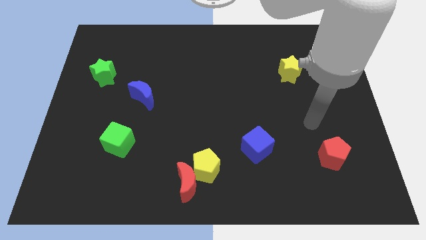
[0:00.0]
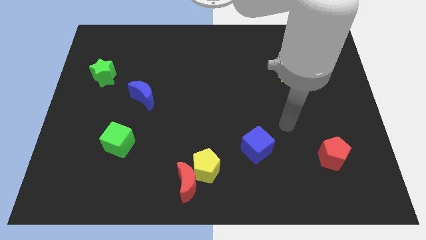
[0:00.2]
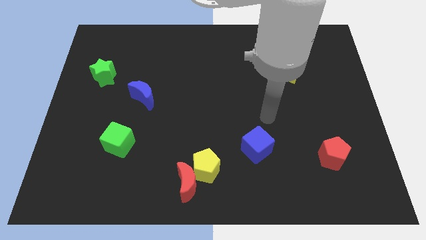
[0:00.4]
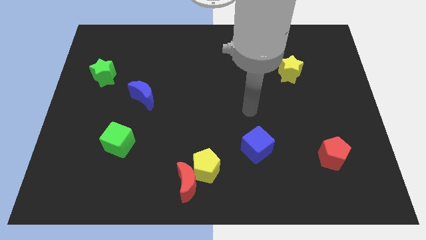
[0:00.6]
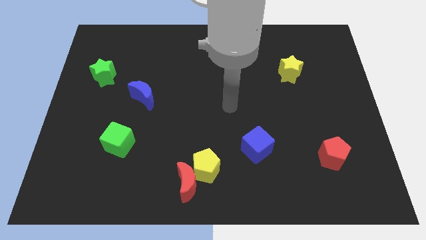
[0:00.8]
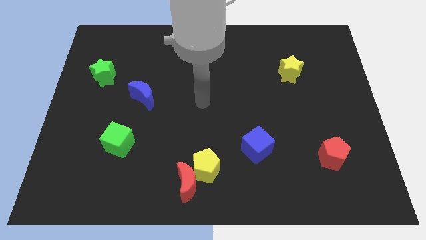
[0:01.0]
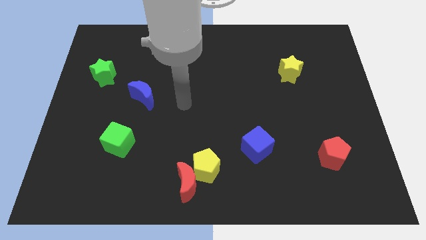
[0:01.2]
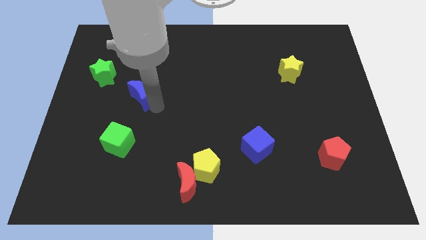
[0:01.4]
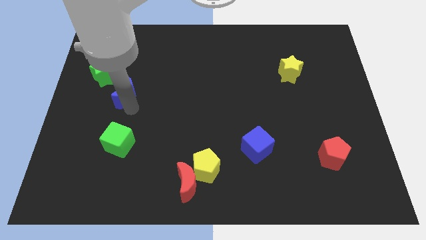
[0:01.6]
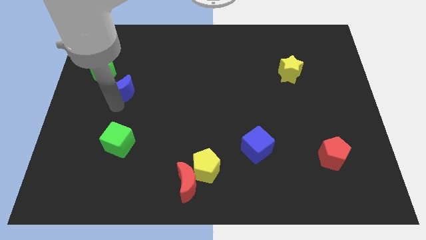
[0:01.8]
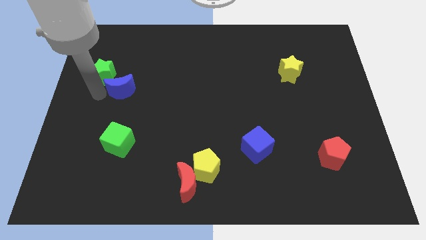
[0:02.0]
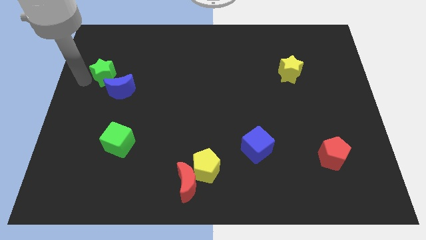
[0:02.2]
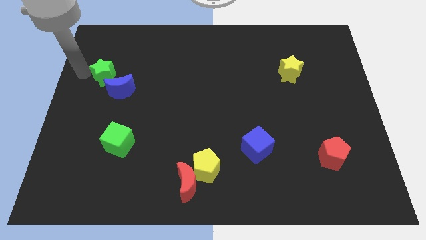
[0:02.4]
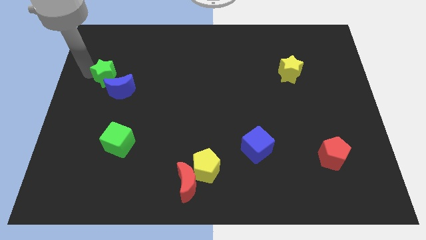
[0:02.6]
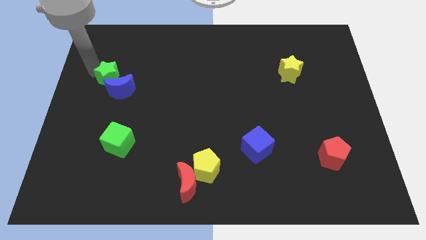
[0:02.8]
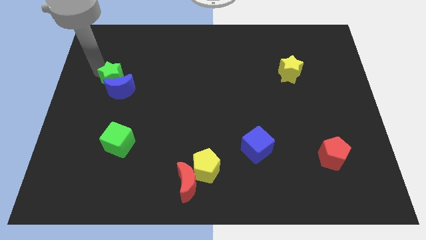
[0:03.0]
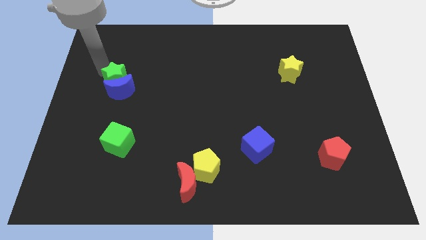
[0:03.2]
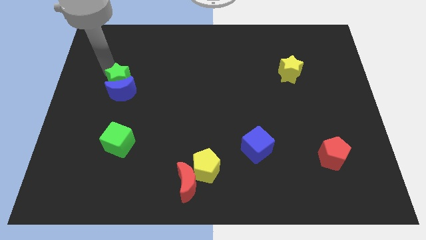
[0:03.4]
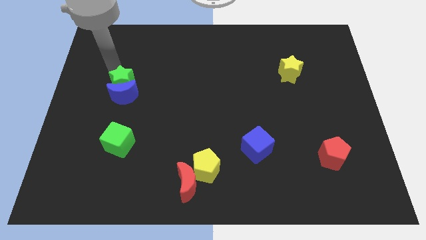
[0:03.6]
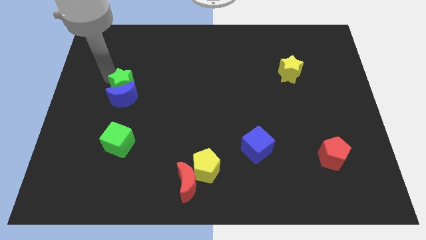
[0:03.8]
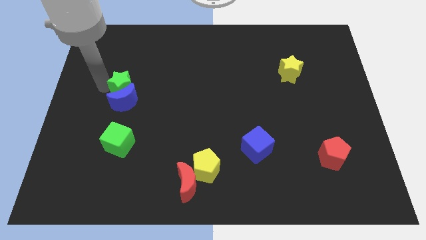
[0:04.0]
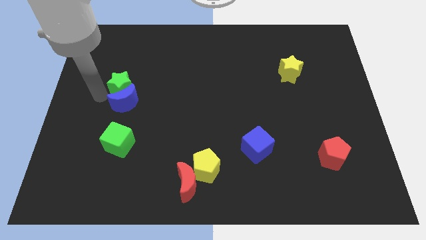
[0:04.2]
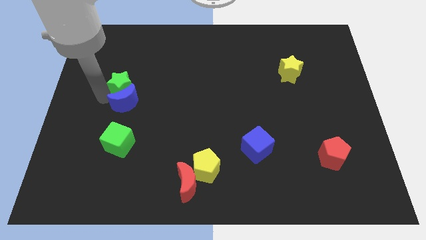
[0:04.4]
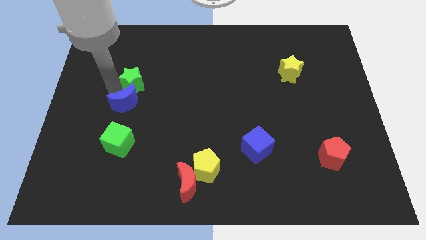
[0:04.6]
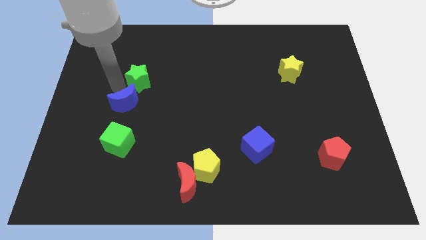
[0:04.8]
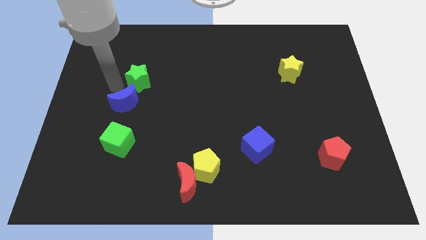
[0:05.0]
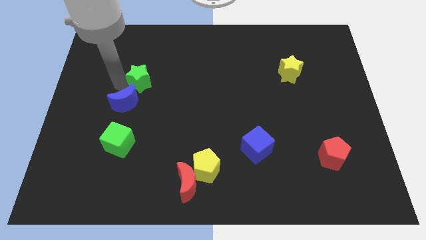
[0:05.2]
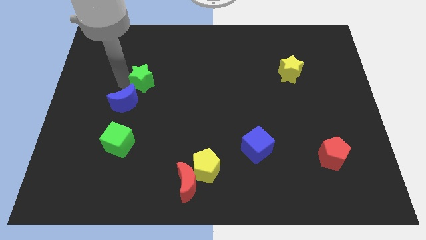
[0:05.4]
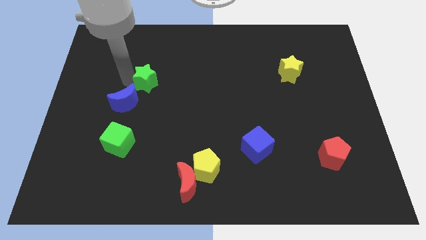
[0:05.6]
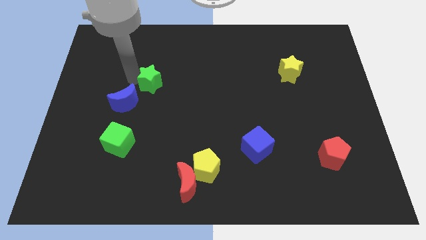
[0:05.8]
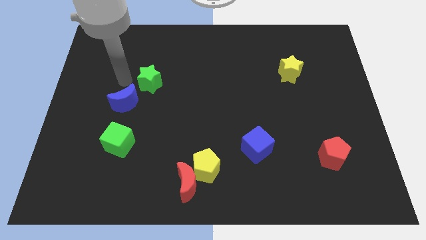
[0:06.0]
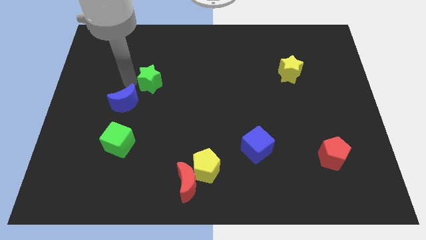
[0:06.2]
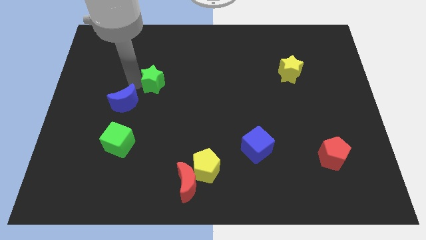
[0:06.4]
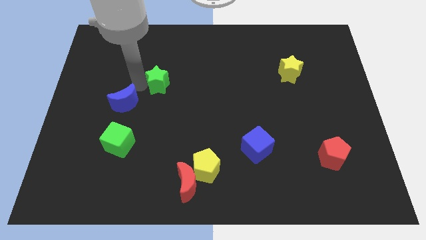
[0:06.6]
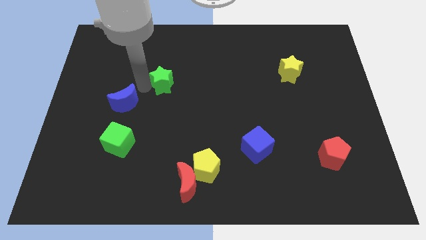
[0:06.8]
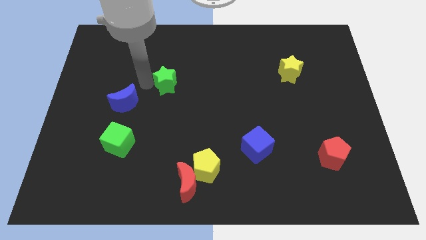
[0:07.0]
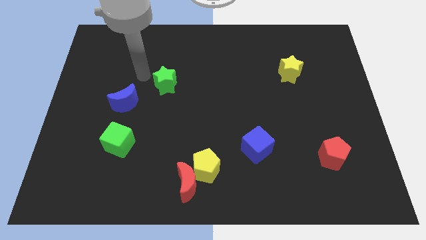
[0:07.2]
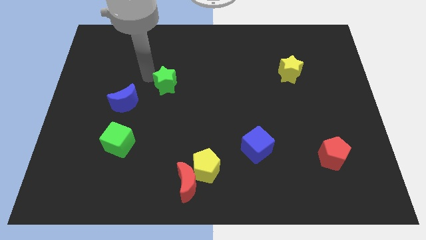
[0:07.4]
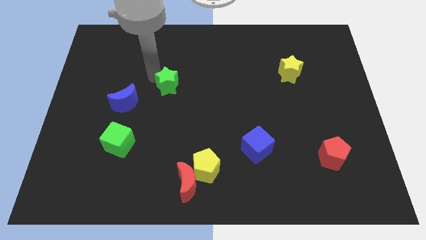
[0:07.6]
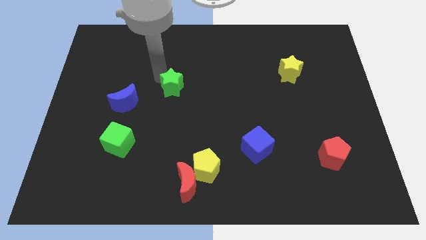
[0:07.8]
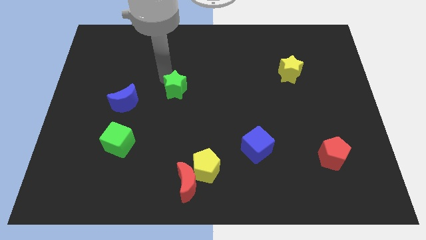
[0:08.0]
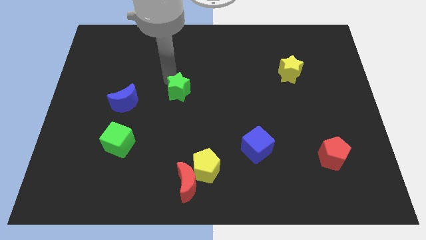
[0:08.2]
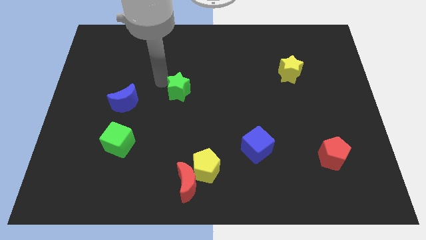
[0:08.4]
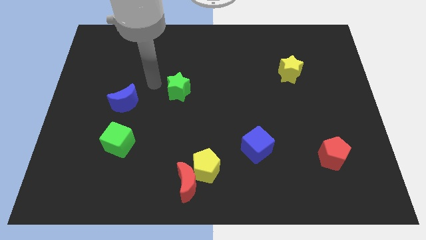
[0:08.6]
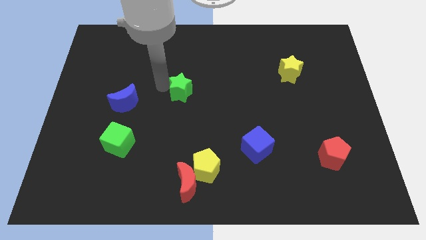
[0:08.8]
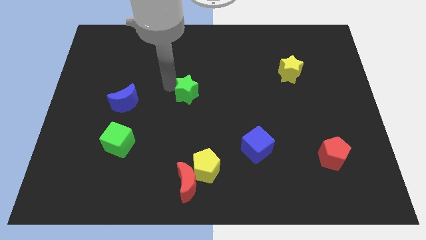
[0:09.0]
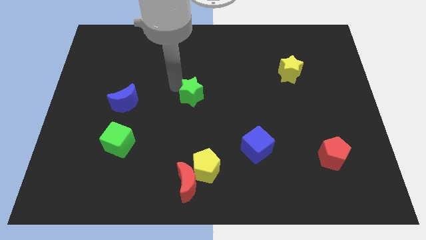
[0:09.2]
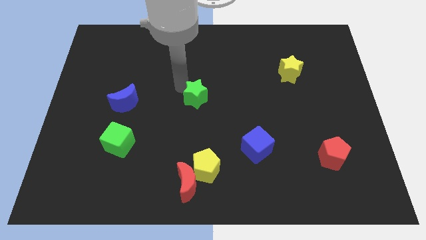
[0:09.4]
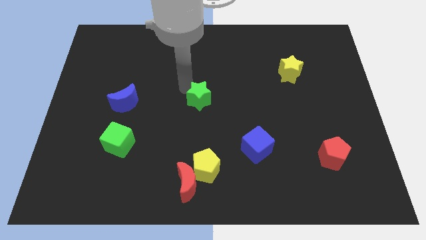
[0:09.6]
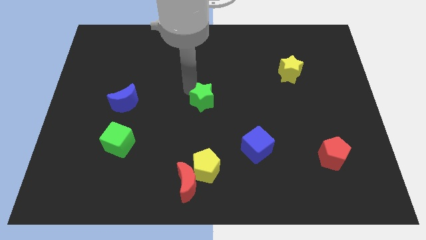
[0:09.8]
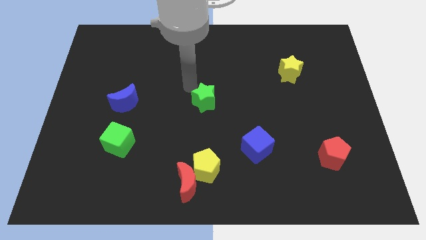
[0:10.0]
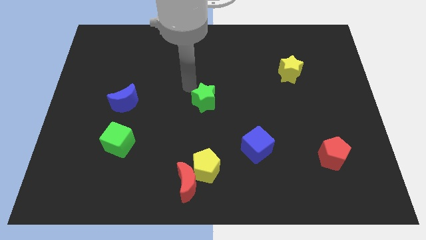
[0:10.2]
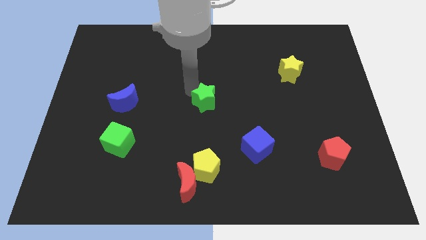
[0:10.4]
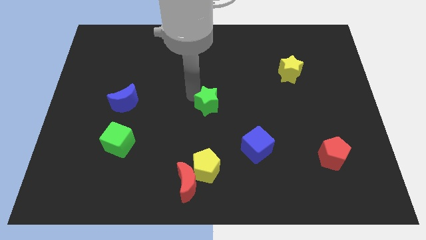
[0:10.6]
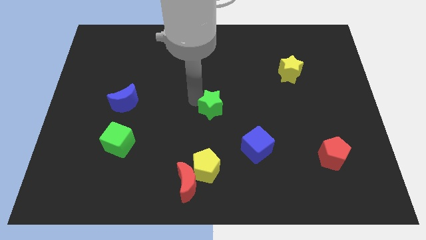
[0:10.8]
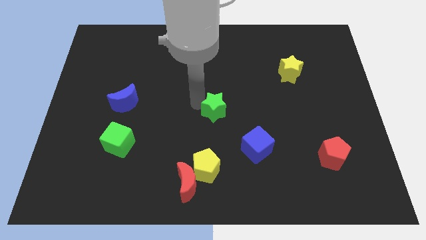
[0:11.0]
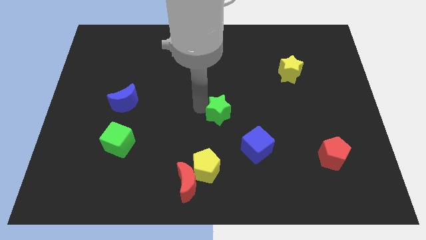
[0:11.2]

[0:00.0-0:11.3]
move the green star to the top left of the blue cube

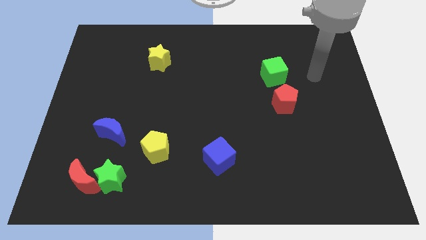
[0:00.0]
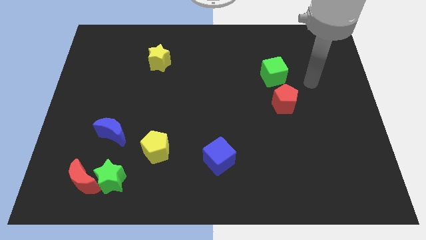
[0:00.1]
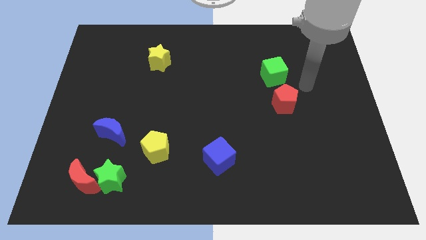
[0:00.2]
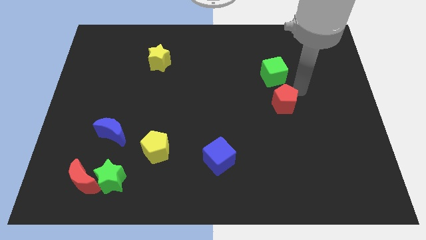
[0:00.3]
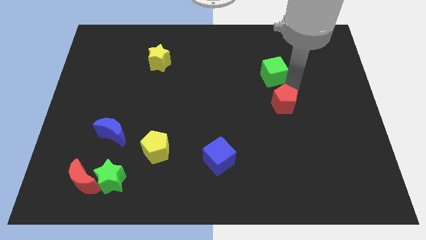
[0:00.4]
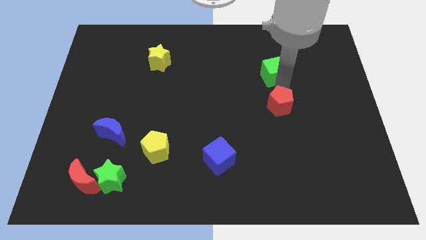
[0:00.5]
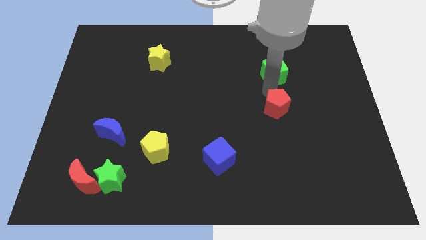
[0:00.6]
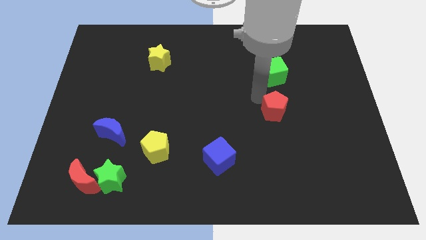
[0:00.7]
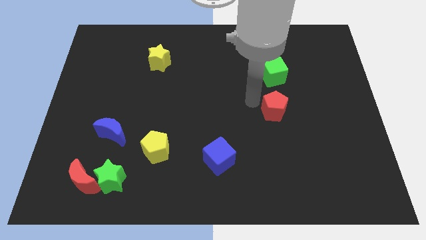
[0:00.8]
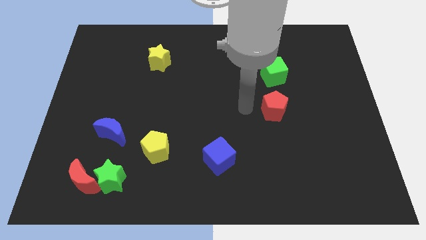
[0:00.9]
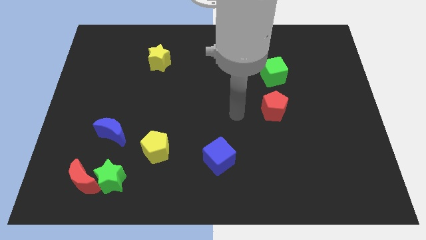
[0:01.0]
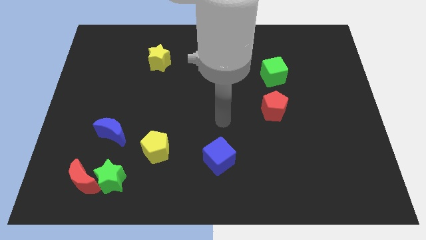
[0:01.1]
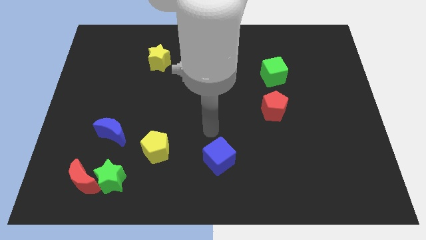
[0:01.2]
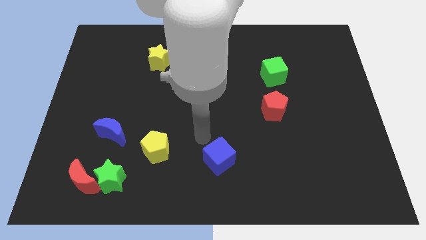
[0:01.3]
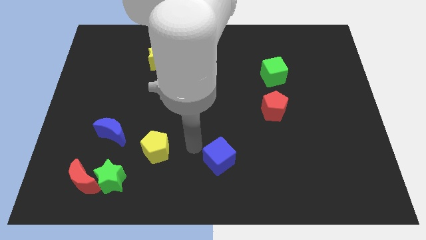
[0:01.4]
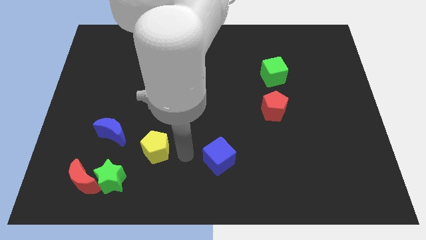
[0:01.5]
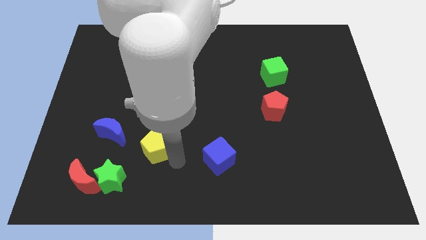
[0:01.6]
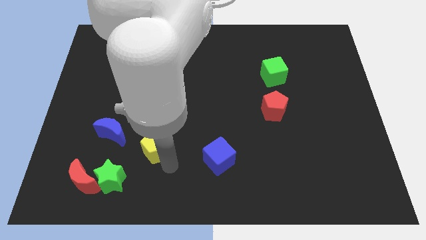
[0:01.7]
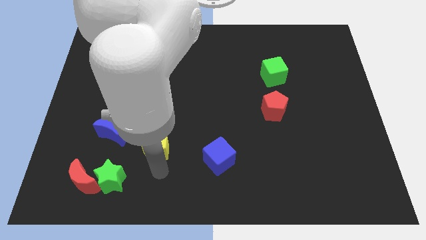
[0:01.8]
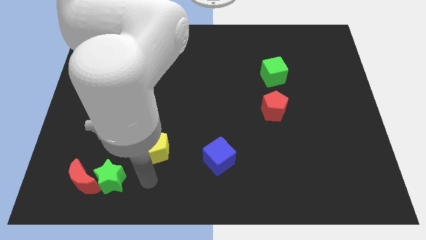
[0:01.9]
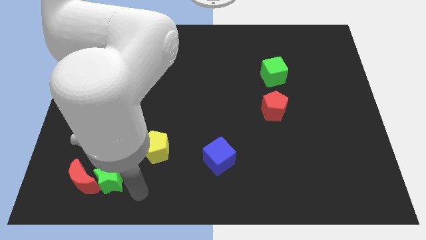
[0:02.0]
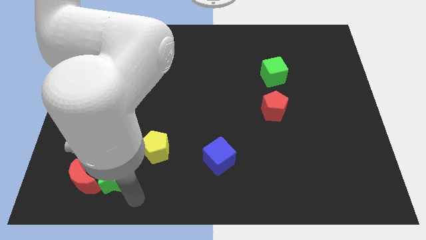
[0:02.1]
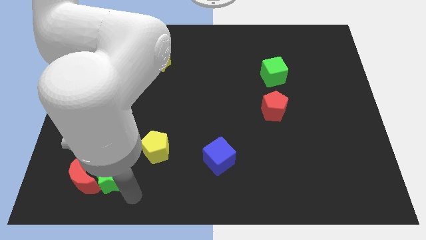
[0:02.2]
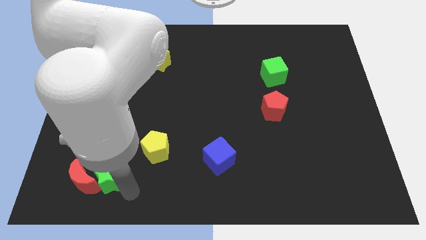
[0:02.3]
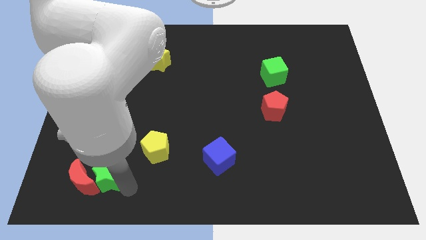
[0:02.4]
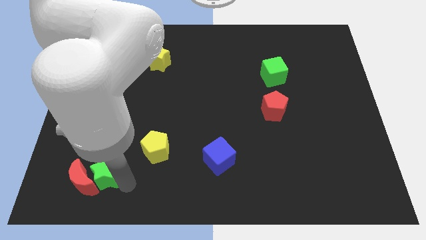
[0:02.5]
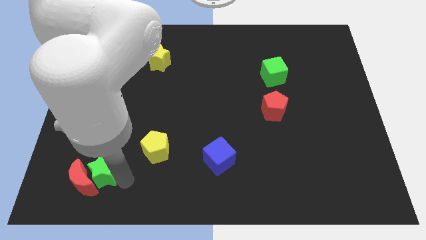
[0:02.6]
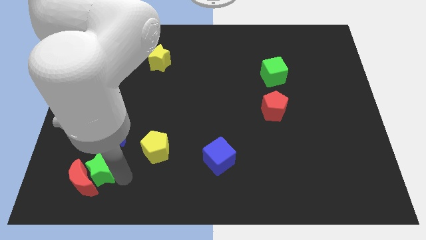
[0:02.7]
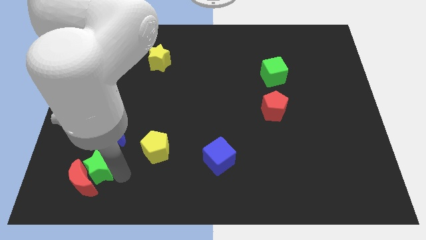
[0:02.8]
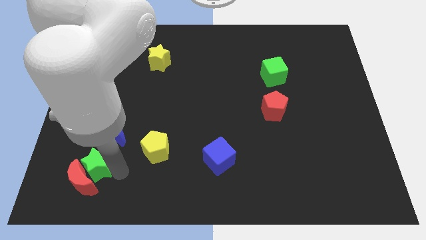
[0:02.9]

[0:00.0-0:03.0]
push the green star to the bottom left side of the blue moon
